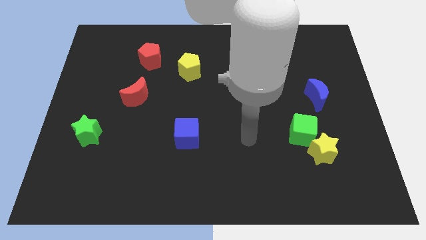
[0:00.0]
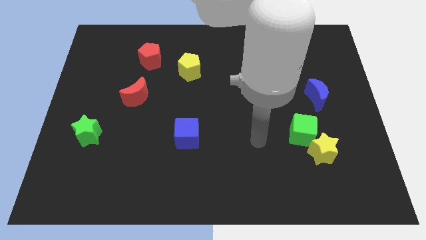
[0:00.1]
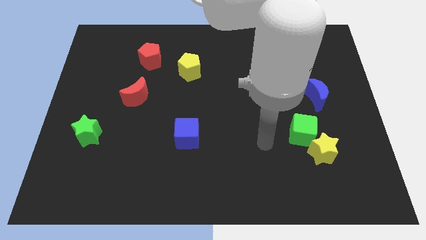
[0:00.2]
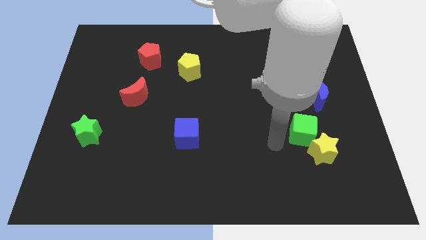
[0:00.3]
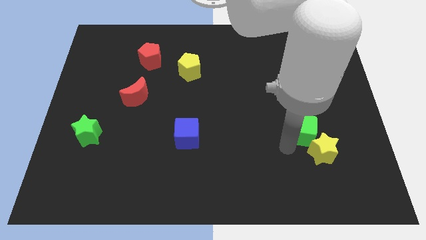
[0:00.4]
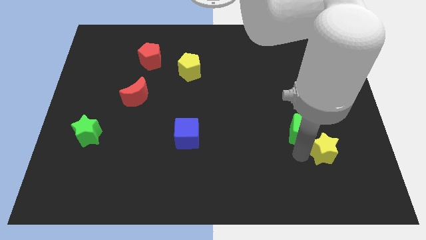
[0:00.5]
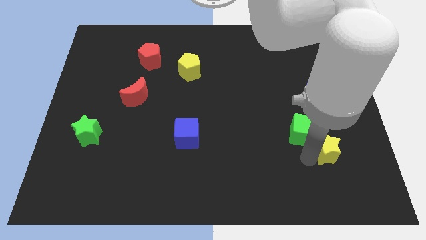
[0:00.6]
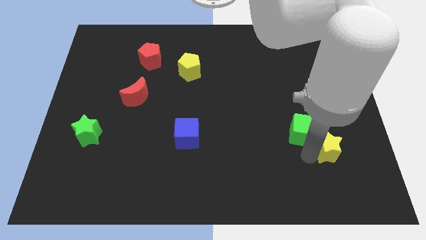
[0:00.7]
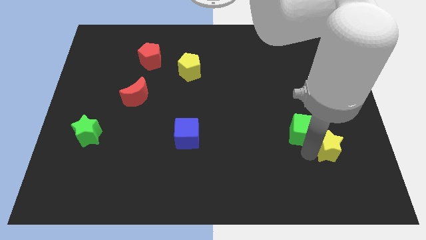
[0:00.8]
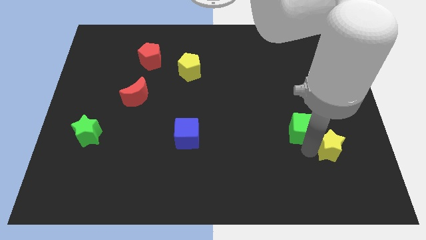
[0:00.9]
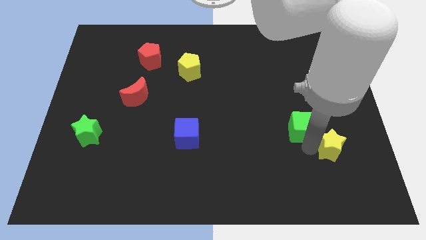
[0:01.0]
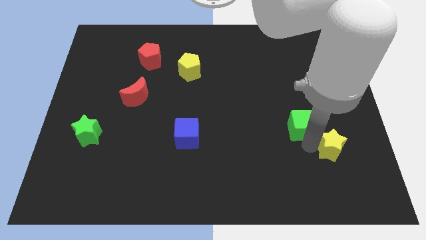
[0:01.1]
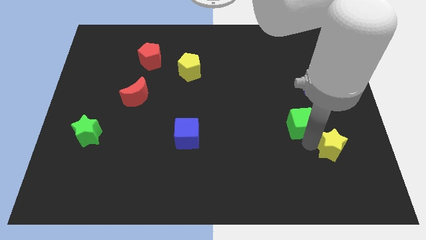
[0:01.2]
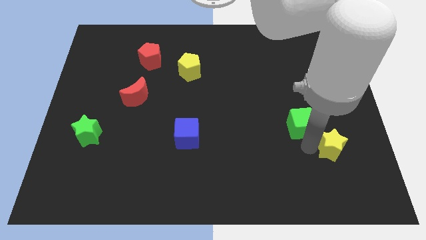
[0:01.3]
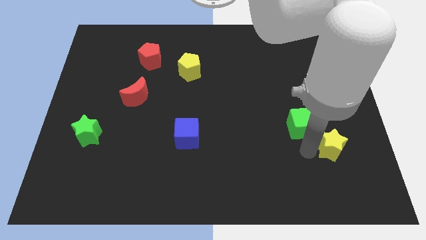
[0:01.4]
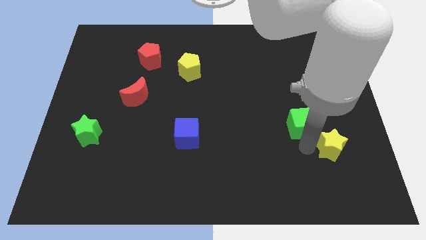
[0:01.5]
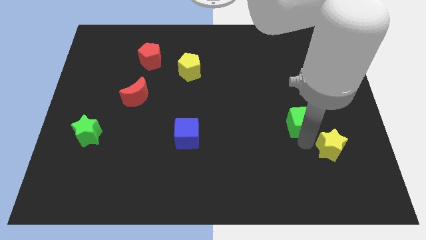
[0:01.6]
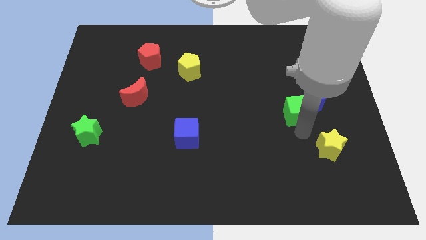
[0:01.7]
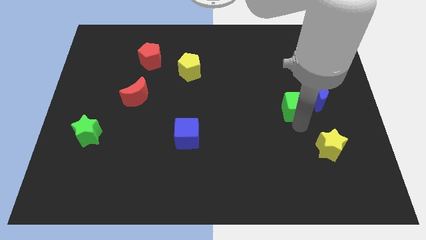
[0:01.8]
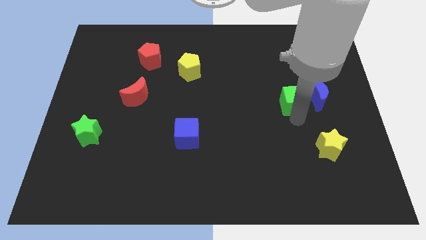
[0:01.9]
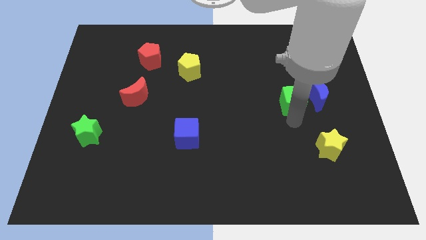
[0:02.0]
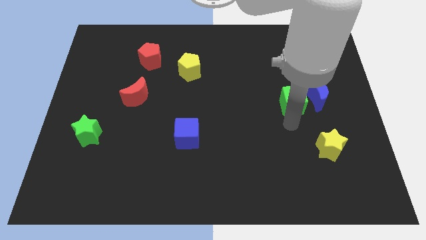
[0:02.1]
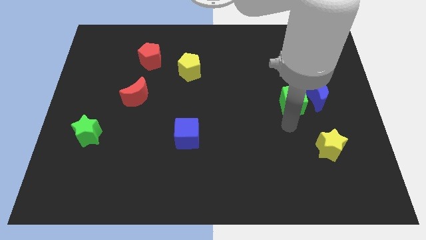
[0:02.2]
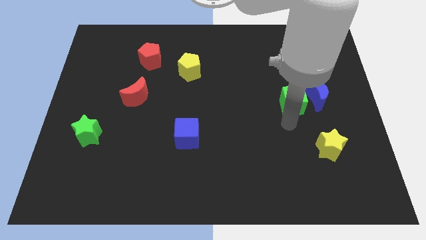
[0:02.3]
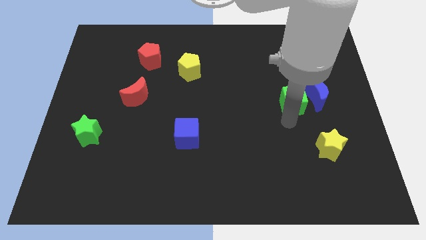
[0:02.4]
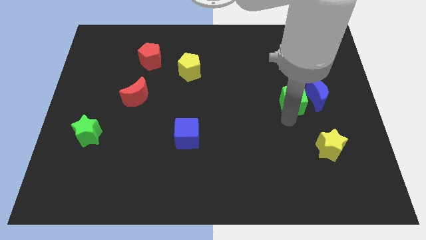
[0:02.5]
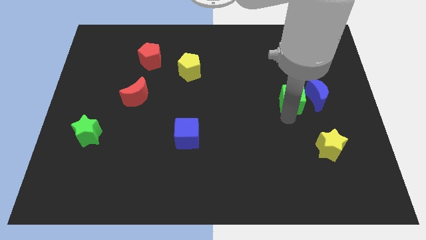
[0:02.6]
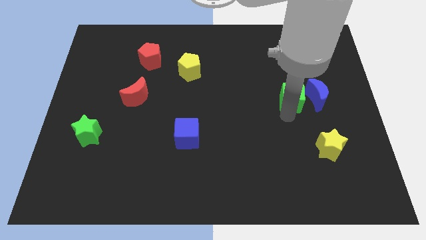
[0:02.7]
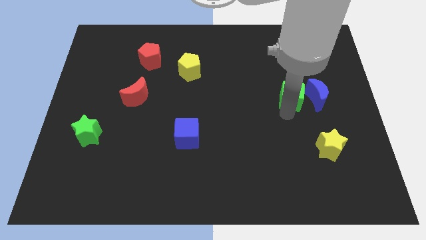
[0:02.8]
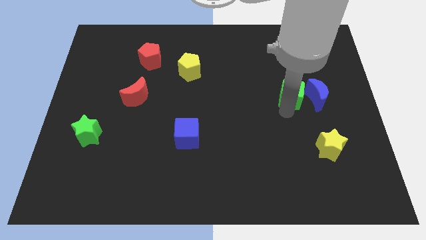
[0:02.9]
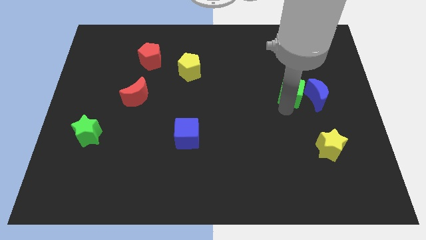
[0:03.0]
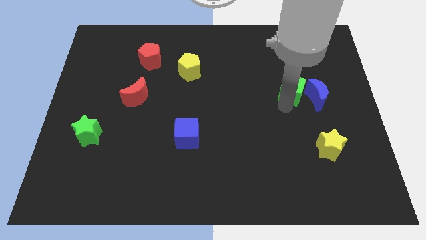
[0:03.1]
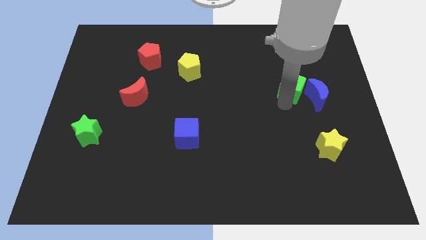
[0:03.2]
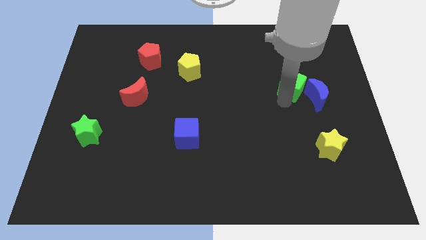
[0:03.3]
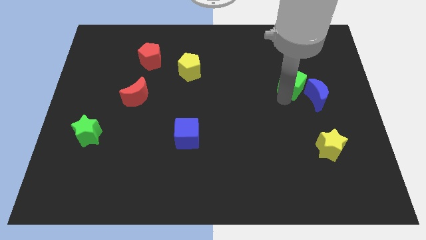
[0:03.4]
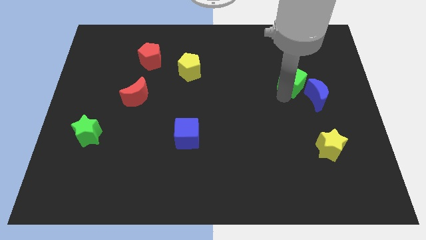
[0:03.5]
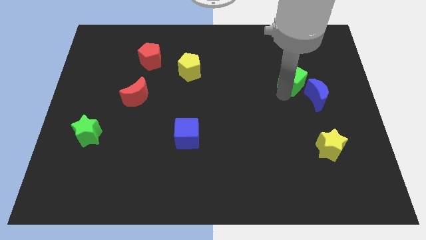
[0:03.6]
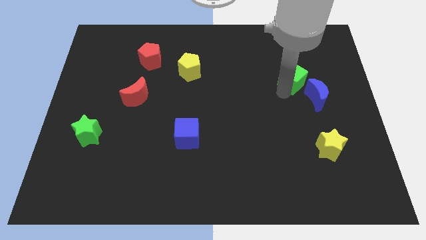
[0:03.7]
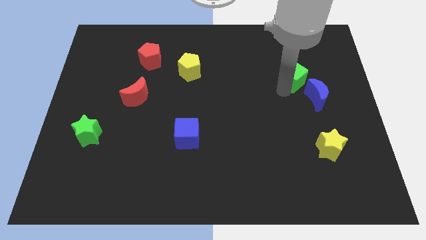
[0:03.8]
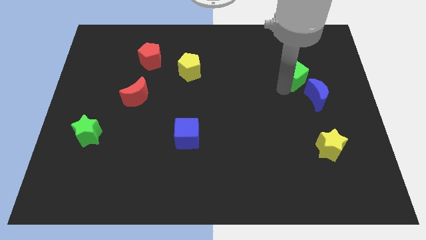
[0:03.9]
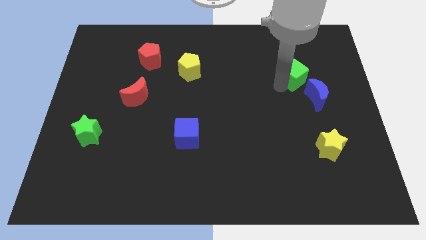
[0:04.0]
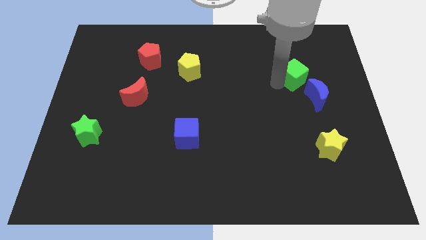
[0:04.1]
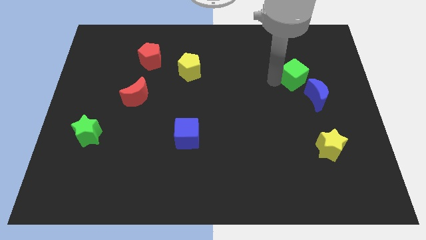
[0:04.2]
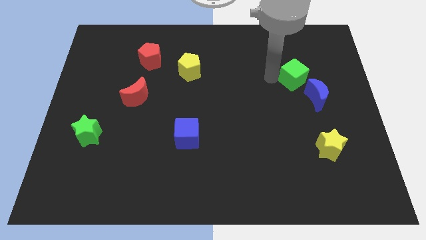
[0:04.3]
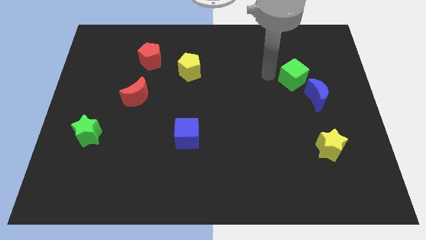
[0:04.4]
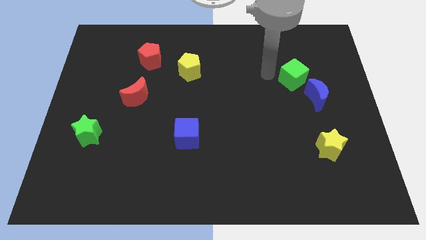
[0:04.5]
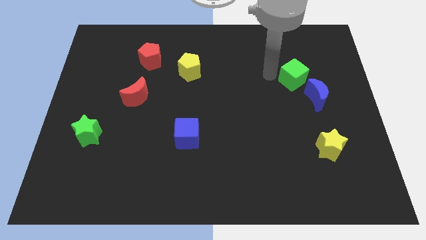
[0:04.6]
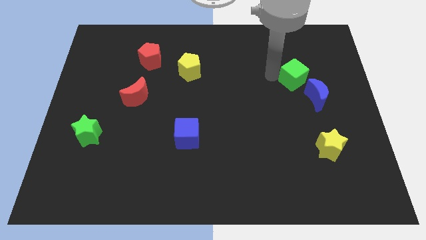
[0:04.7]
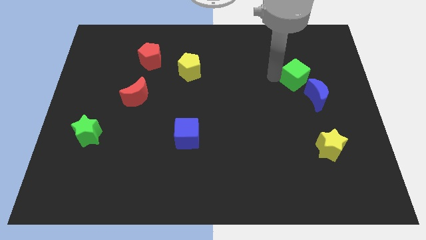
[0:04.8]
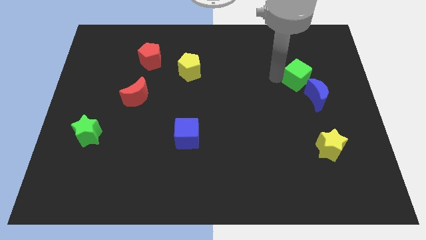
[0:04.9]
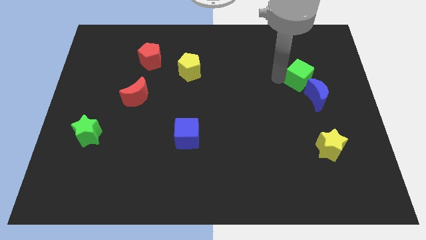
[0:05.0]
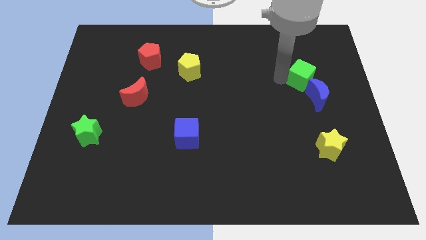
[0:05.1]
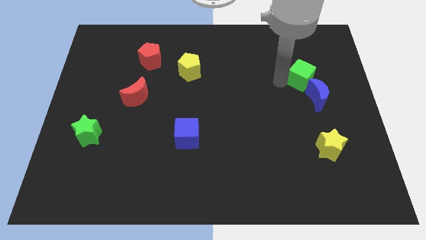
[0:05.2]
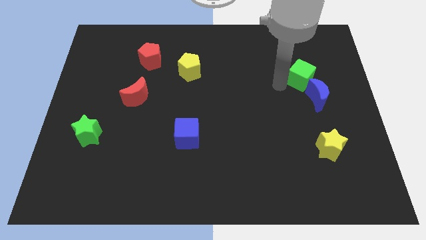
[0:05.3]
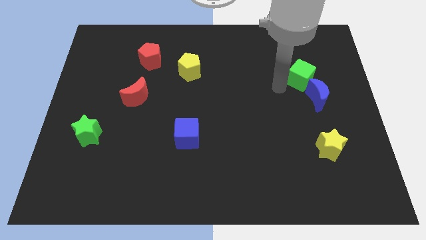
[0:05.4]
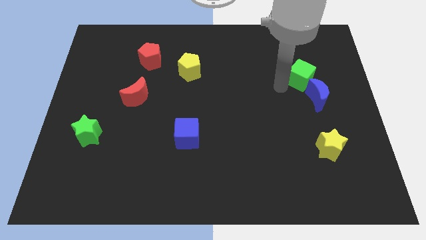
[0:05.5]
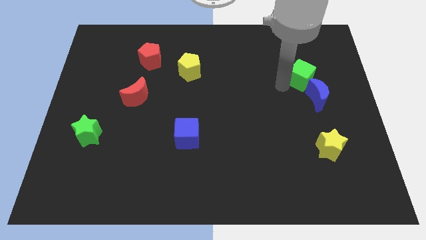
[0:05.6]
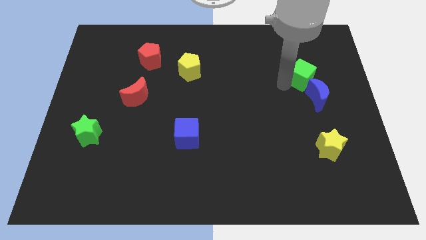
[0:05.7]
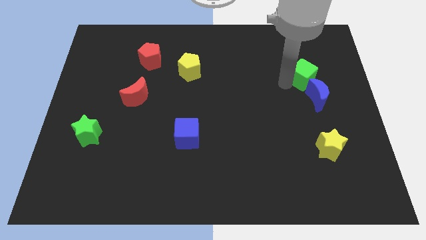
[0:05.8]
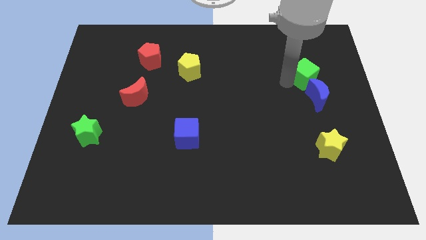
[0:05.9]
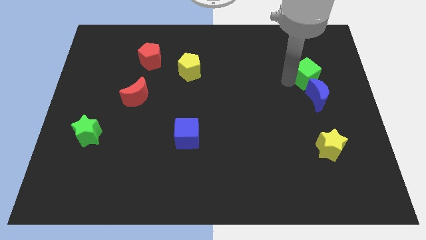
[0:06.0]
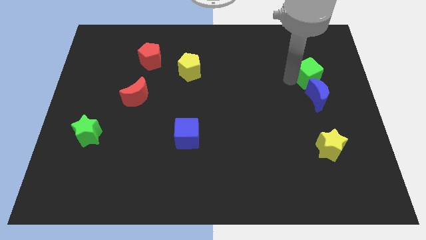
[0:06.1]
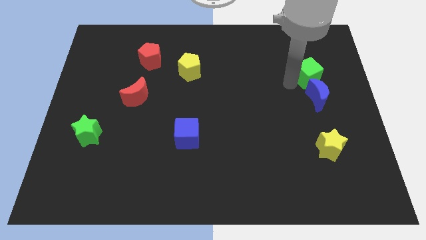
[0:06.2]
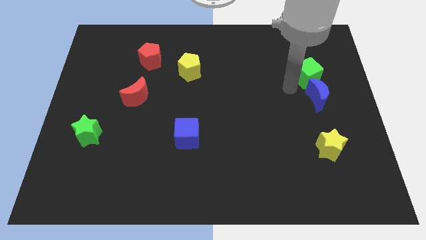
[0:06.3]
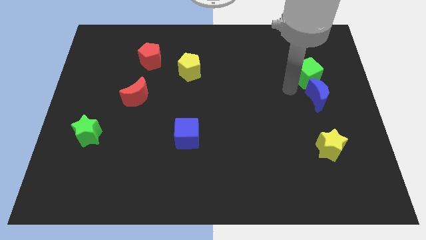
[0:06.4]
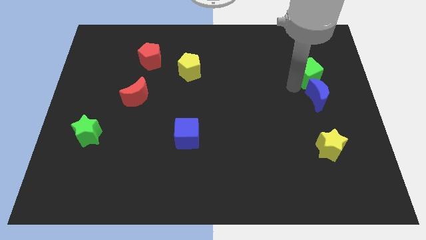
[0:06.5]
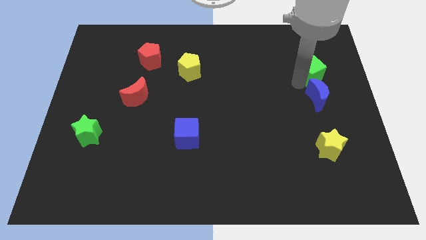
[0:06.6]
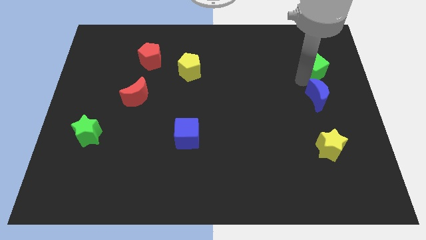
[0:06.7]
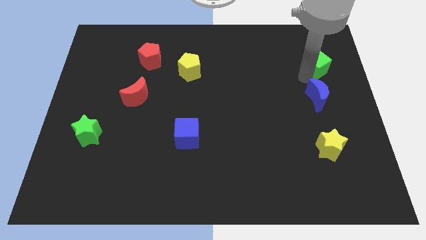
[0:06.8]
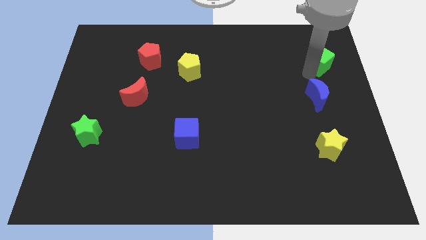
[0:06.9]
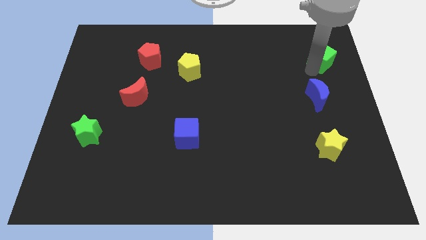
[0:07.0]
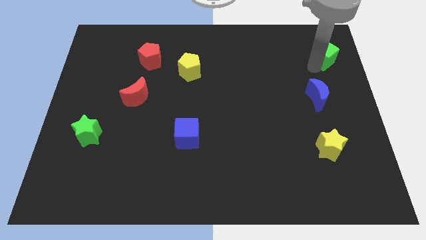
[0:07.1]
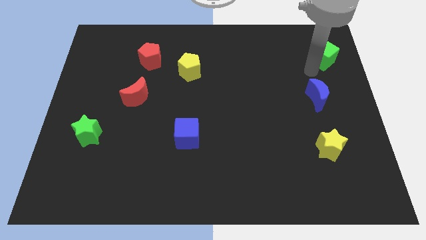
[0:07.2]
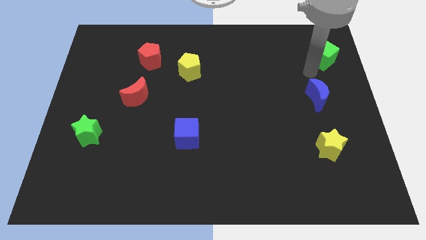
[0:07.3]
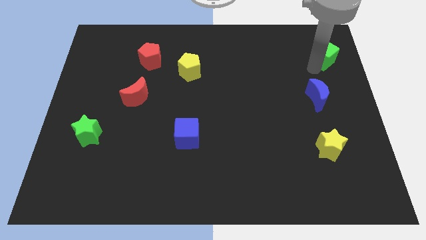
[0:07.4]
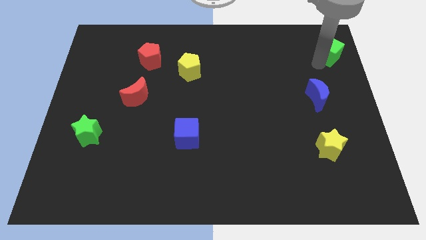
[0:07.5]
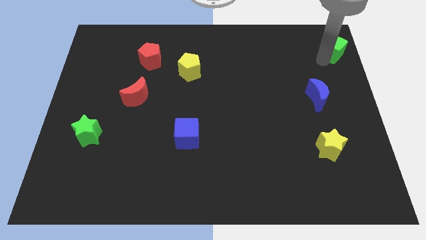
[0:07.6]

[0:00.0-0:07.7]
move the green cube to the top right
